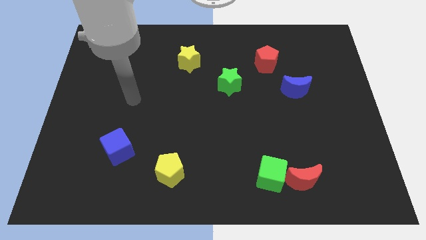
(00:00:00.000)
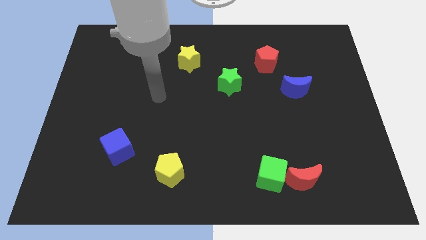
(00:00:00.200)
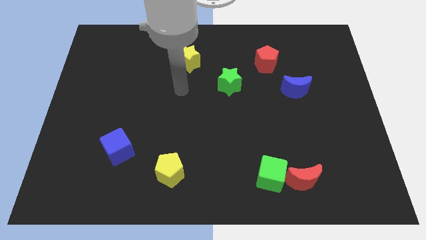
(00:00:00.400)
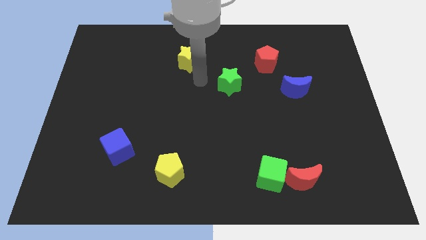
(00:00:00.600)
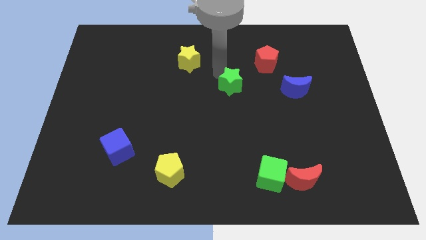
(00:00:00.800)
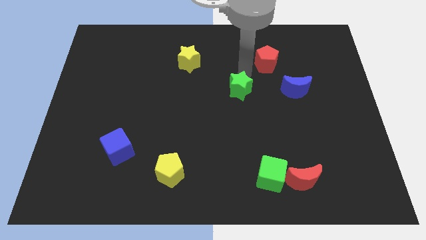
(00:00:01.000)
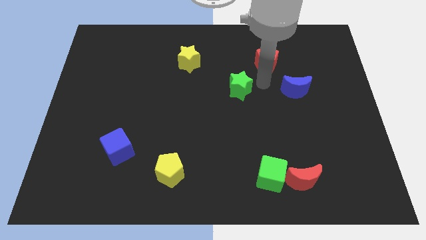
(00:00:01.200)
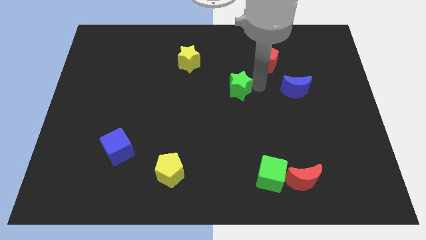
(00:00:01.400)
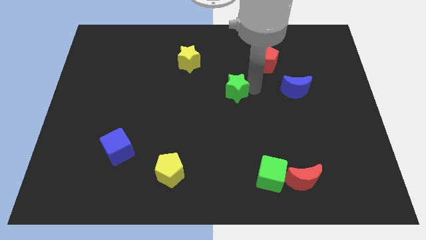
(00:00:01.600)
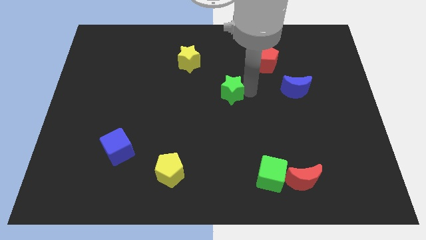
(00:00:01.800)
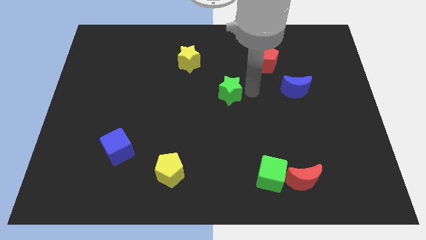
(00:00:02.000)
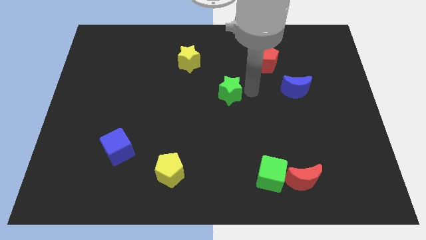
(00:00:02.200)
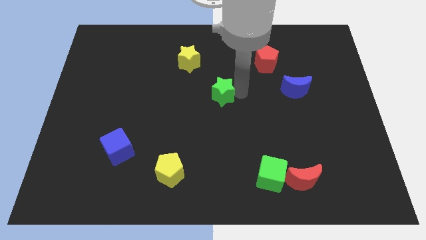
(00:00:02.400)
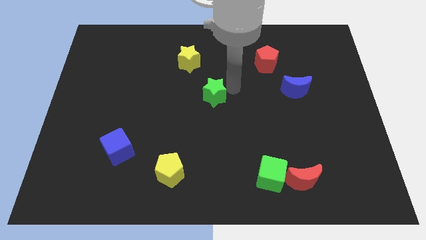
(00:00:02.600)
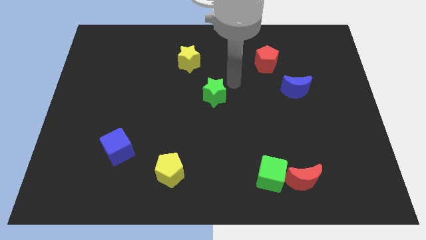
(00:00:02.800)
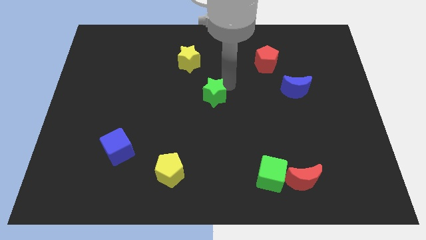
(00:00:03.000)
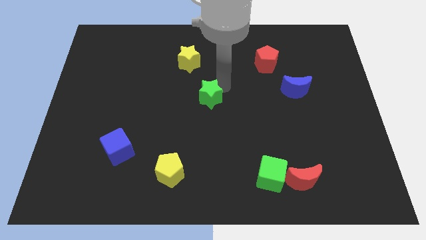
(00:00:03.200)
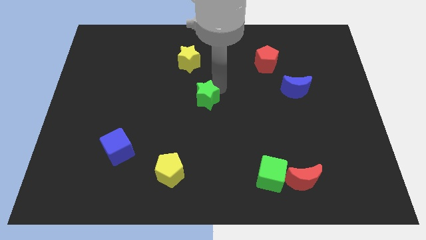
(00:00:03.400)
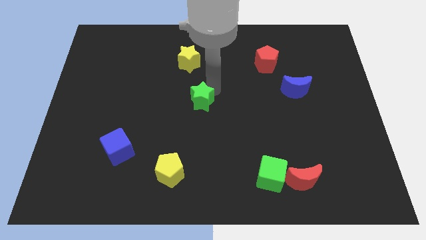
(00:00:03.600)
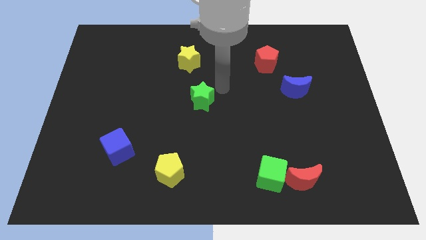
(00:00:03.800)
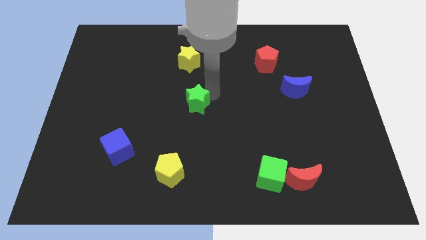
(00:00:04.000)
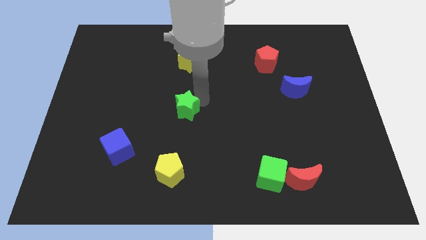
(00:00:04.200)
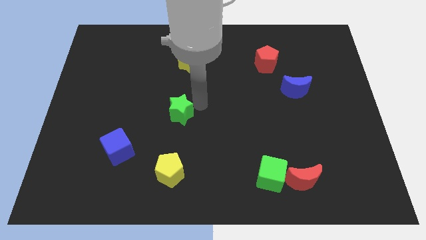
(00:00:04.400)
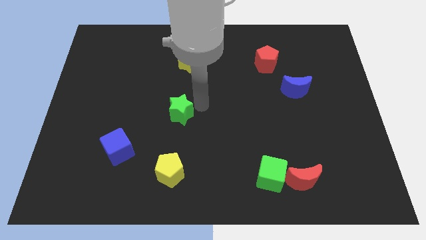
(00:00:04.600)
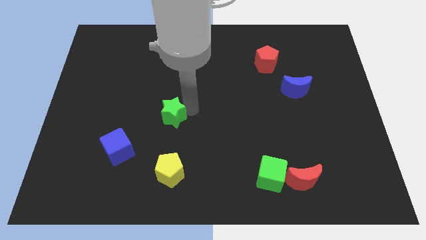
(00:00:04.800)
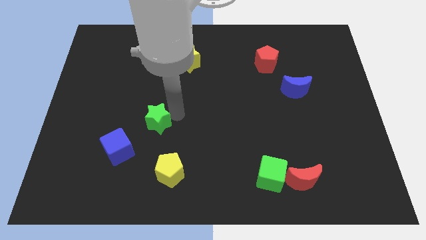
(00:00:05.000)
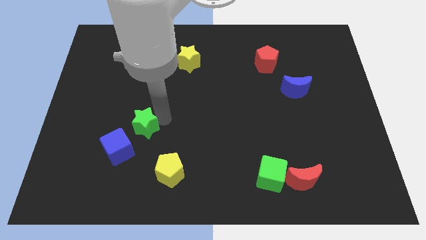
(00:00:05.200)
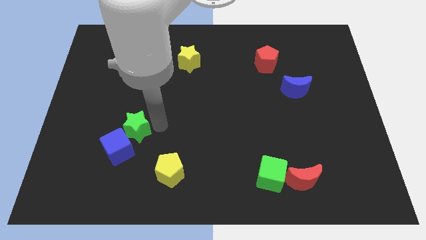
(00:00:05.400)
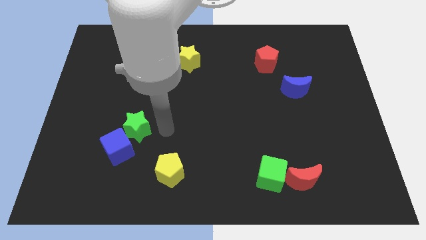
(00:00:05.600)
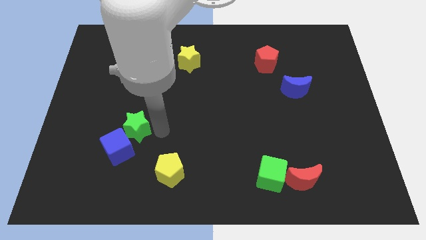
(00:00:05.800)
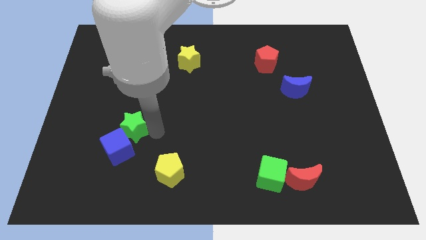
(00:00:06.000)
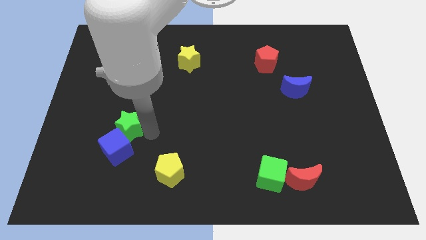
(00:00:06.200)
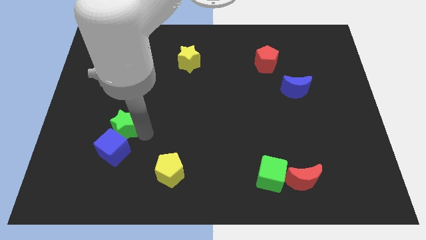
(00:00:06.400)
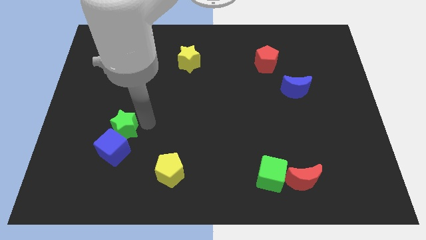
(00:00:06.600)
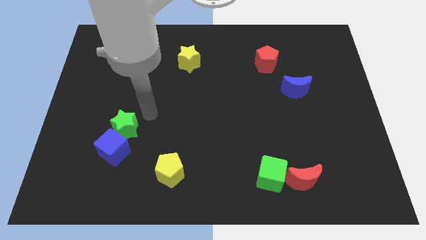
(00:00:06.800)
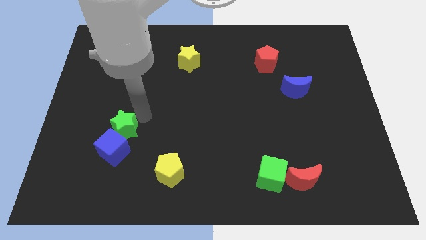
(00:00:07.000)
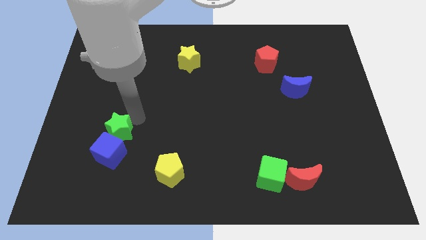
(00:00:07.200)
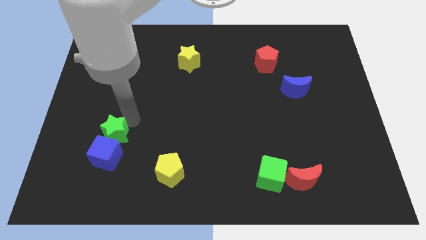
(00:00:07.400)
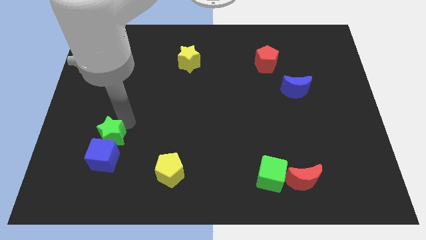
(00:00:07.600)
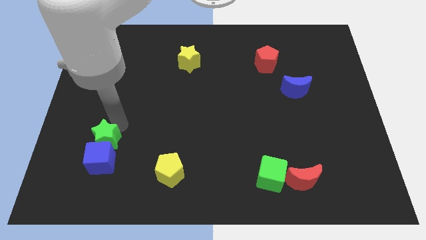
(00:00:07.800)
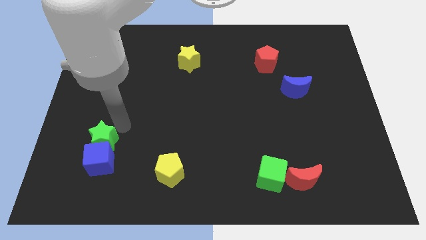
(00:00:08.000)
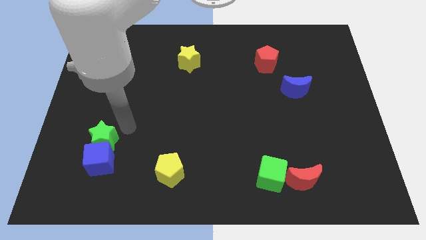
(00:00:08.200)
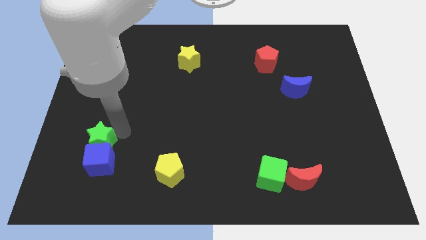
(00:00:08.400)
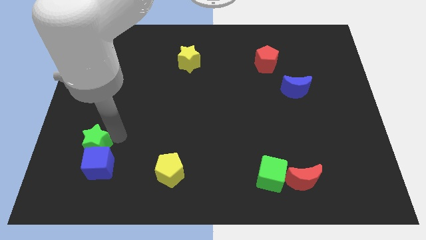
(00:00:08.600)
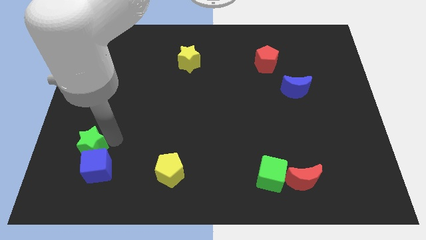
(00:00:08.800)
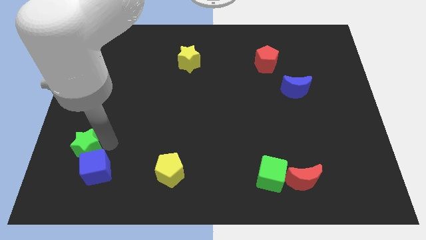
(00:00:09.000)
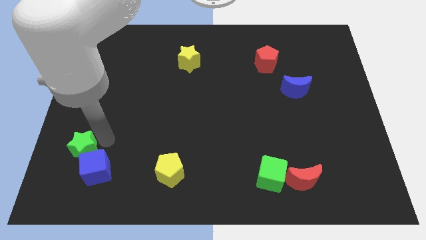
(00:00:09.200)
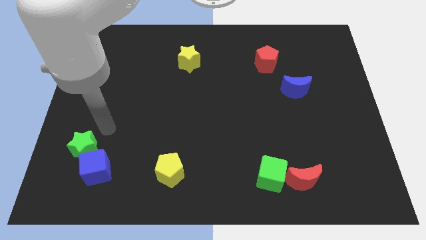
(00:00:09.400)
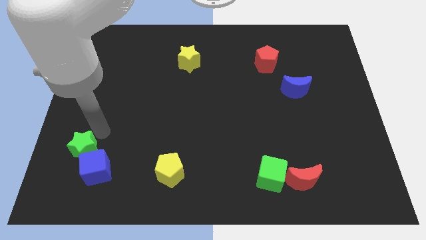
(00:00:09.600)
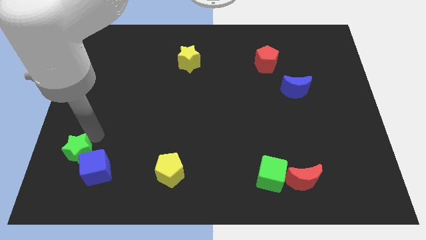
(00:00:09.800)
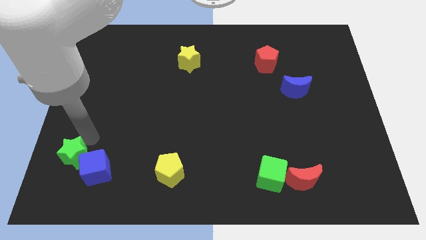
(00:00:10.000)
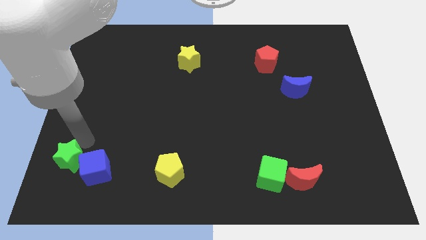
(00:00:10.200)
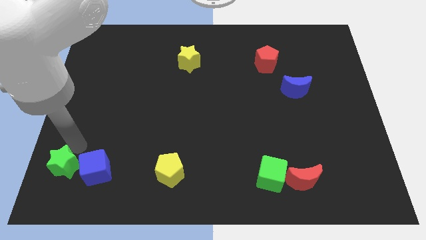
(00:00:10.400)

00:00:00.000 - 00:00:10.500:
put the green star to the bottom left corner

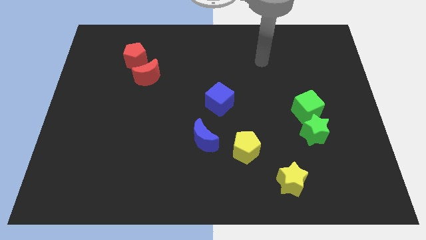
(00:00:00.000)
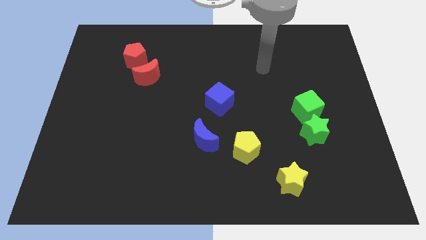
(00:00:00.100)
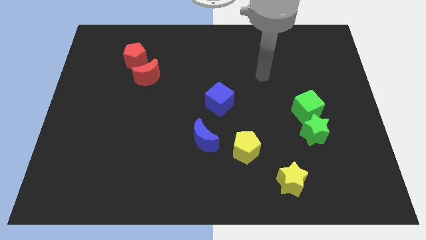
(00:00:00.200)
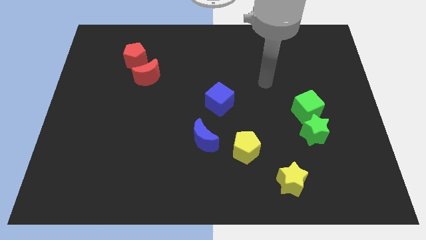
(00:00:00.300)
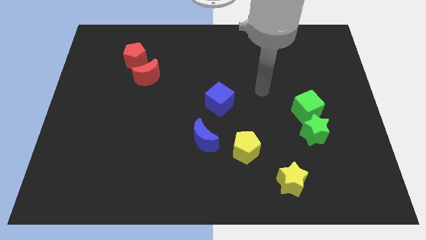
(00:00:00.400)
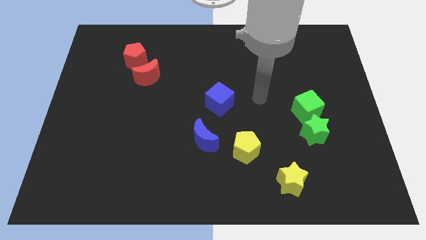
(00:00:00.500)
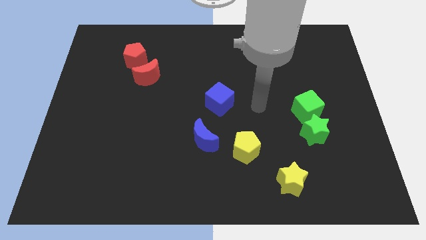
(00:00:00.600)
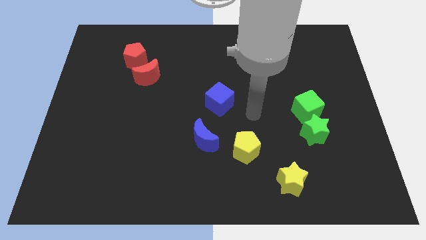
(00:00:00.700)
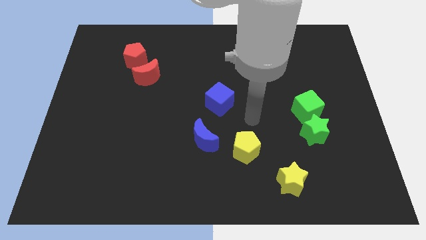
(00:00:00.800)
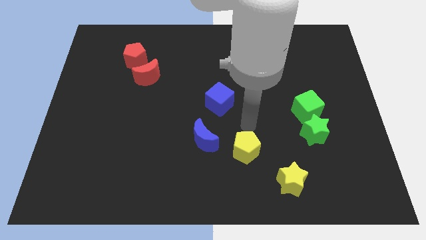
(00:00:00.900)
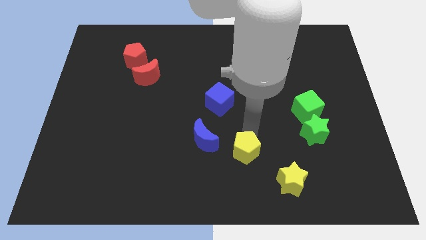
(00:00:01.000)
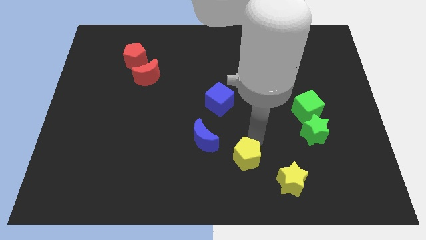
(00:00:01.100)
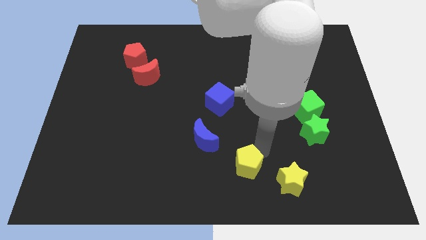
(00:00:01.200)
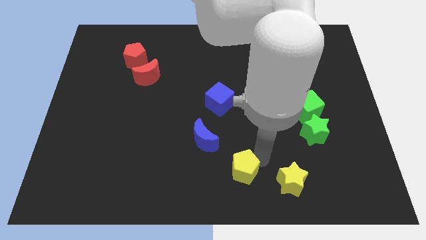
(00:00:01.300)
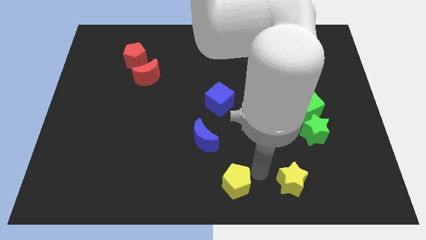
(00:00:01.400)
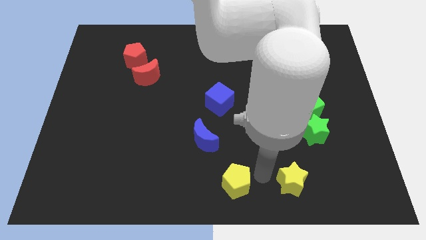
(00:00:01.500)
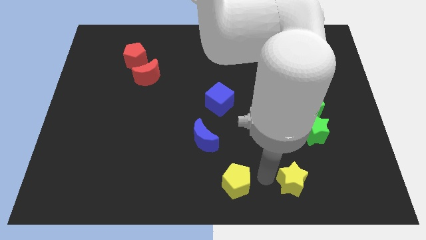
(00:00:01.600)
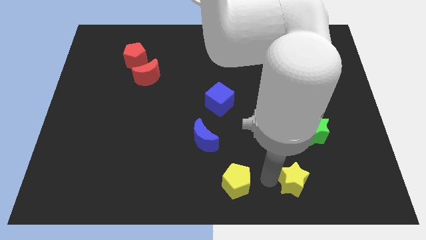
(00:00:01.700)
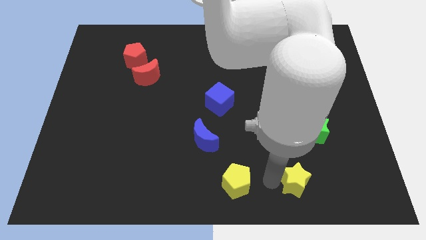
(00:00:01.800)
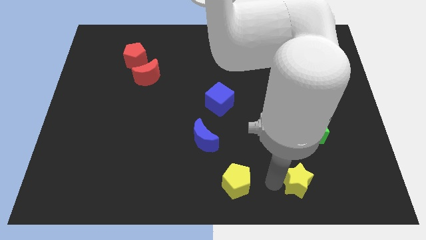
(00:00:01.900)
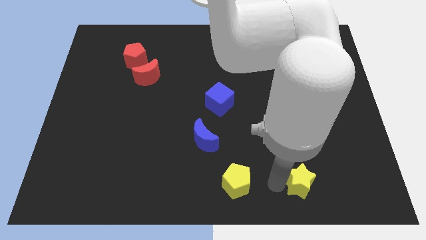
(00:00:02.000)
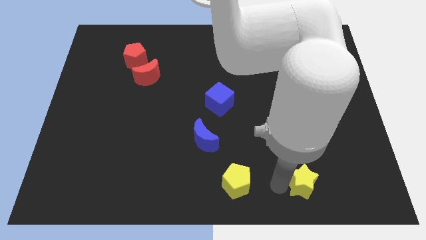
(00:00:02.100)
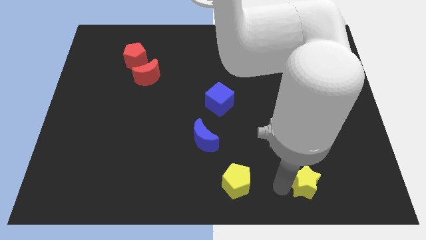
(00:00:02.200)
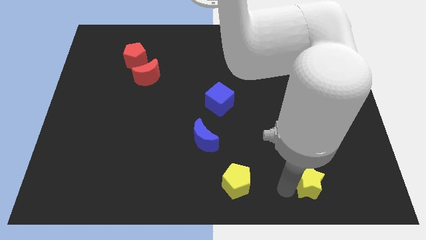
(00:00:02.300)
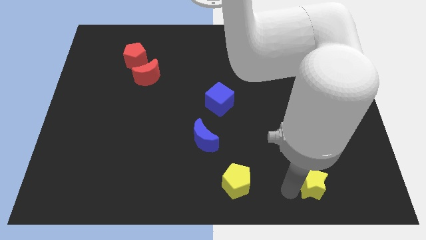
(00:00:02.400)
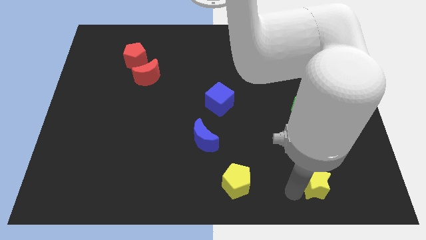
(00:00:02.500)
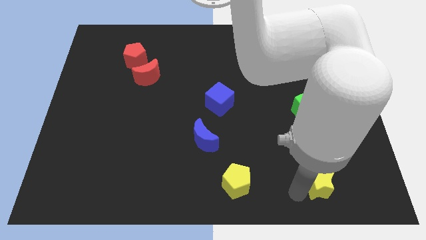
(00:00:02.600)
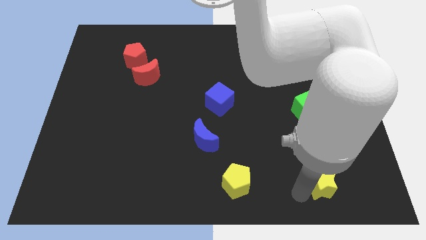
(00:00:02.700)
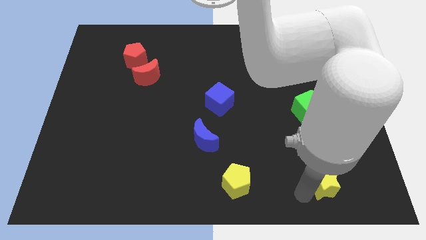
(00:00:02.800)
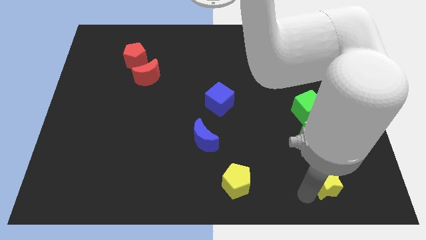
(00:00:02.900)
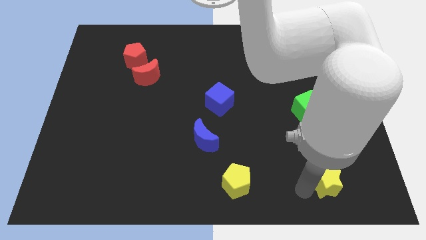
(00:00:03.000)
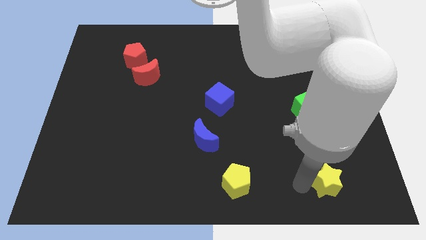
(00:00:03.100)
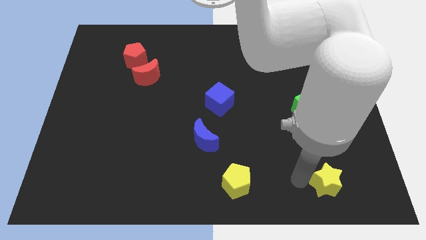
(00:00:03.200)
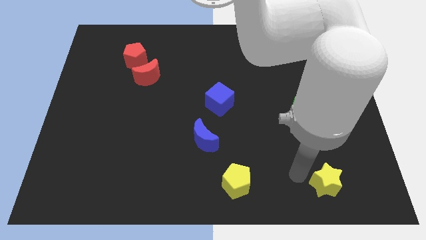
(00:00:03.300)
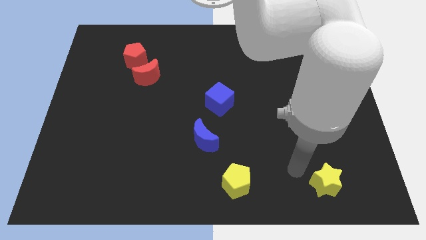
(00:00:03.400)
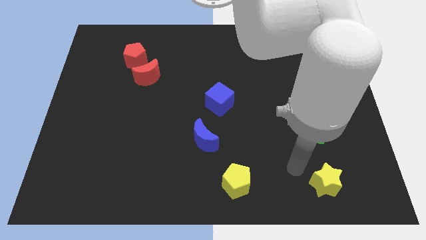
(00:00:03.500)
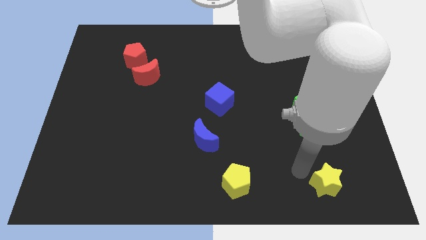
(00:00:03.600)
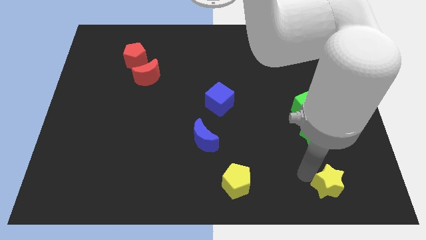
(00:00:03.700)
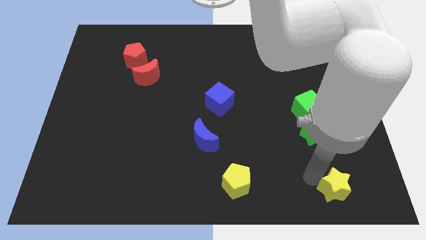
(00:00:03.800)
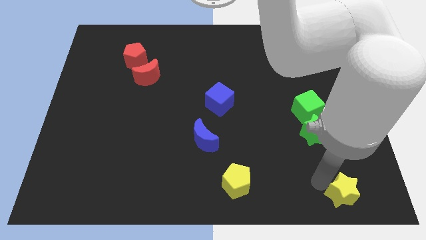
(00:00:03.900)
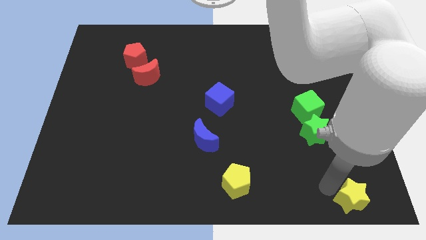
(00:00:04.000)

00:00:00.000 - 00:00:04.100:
push the yellow star to the bottom right of the board
